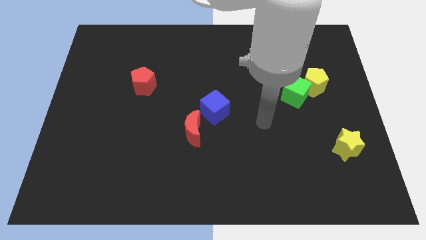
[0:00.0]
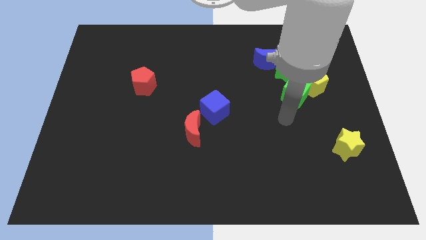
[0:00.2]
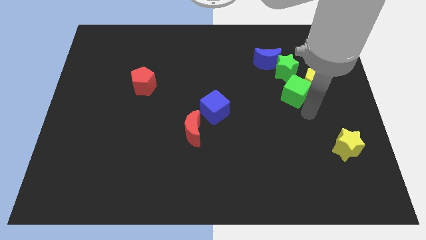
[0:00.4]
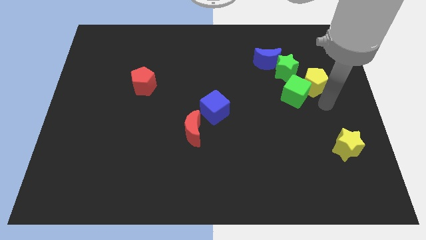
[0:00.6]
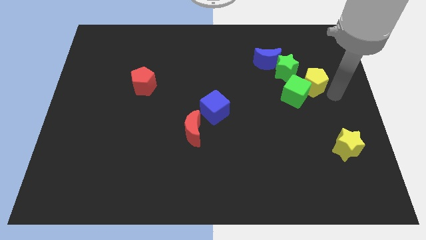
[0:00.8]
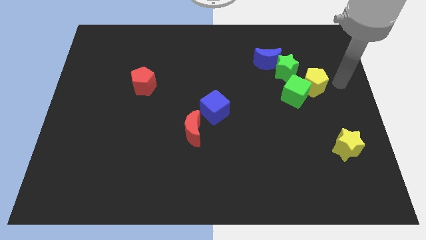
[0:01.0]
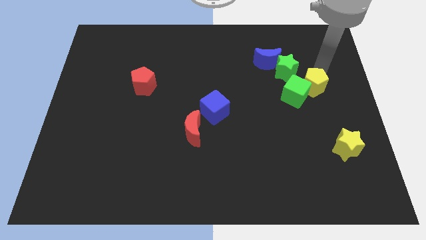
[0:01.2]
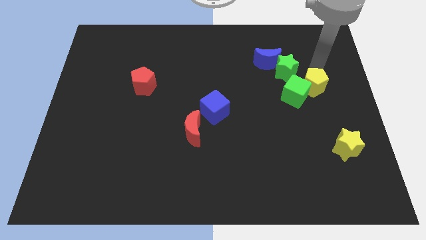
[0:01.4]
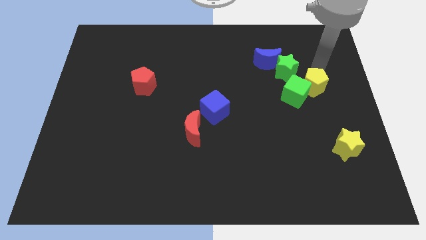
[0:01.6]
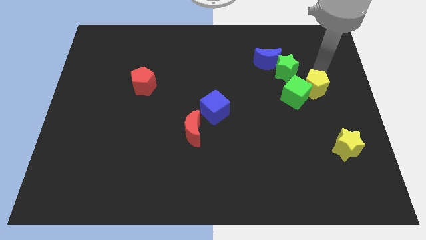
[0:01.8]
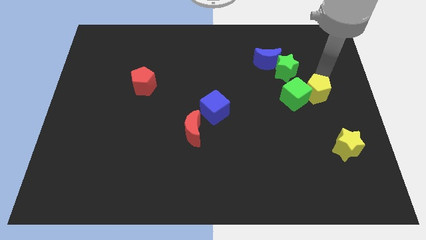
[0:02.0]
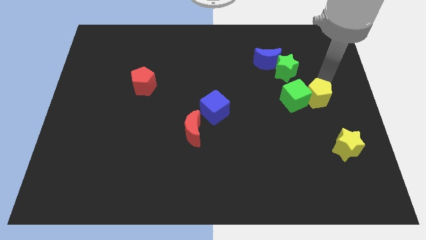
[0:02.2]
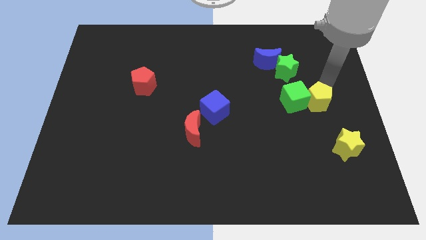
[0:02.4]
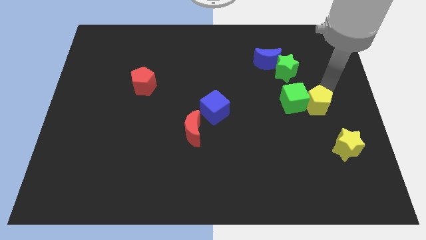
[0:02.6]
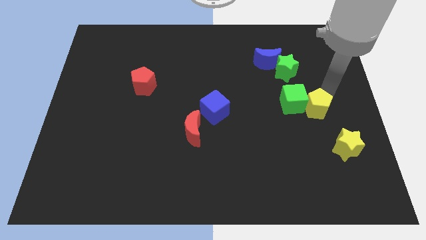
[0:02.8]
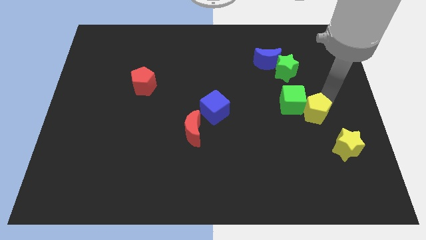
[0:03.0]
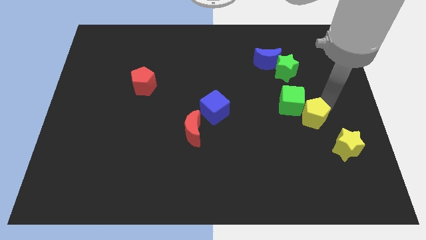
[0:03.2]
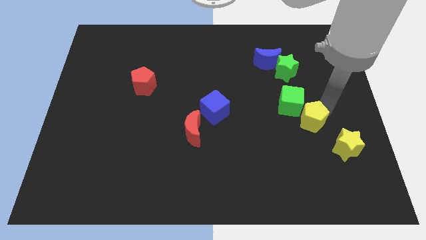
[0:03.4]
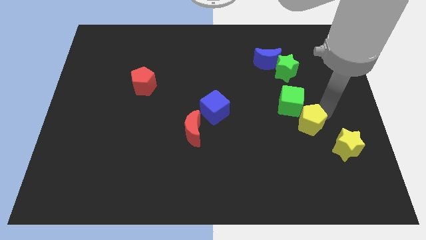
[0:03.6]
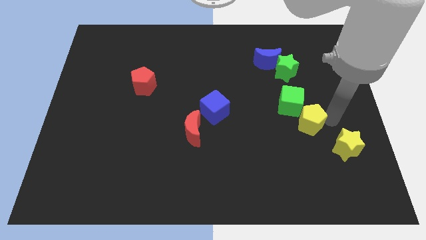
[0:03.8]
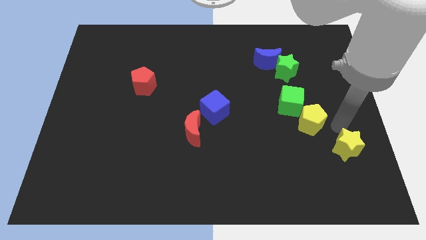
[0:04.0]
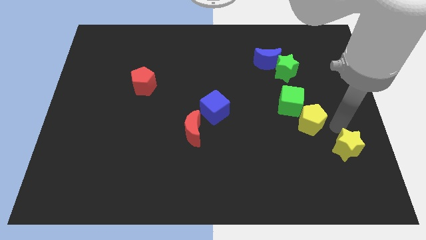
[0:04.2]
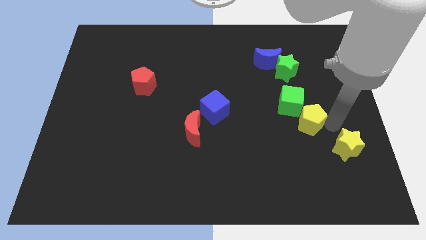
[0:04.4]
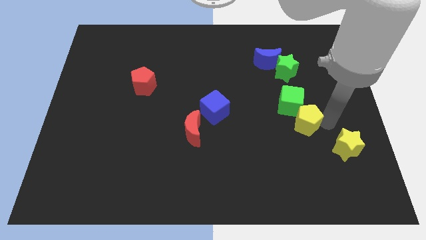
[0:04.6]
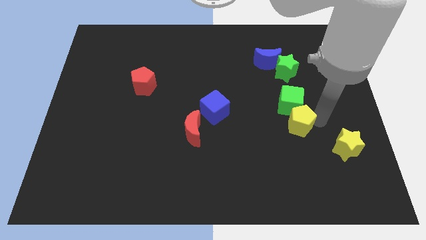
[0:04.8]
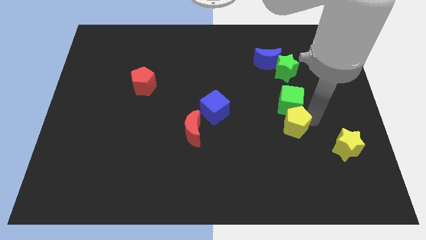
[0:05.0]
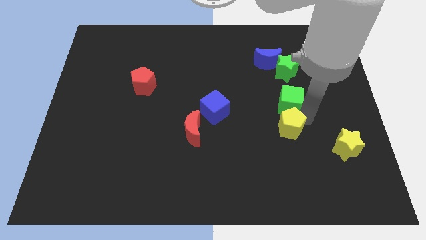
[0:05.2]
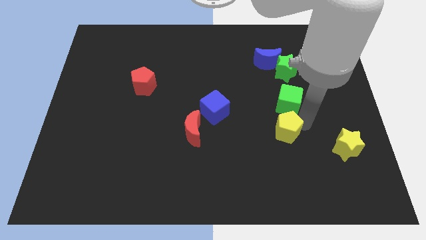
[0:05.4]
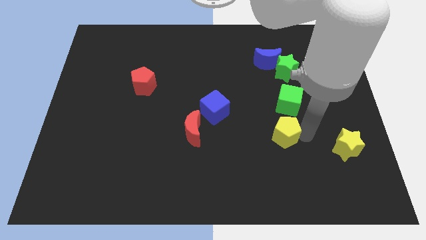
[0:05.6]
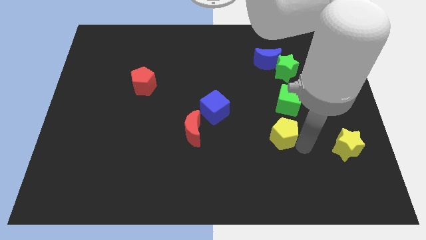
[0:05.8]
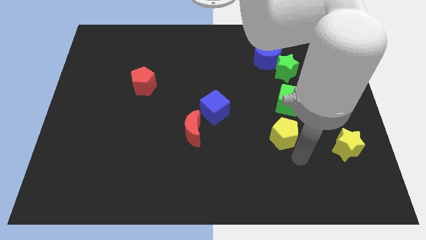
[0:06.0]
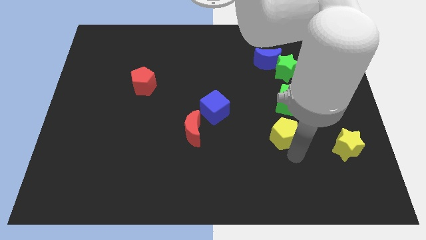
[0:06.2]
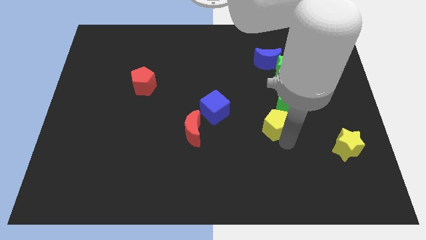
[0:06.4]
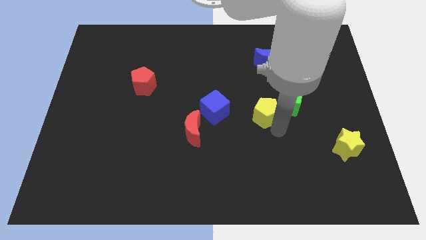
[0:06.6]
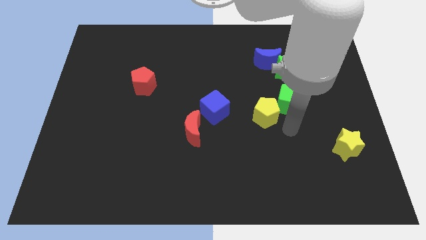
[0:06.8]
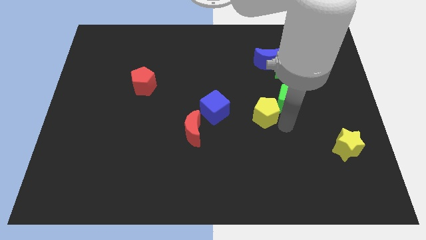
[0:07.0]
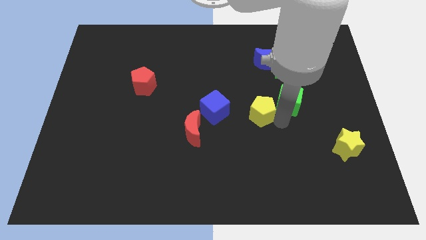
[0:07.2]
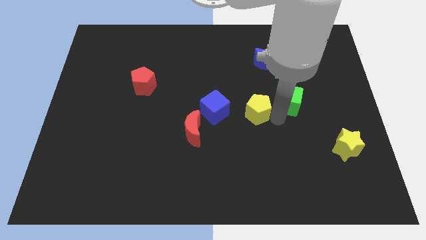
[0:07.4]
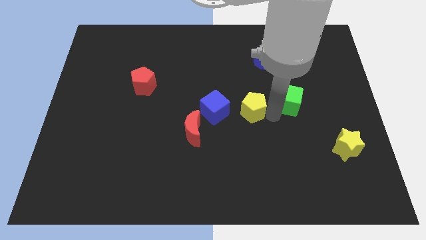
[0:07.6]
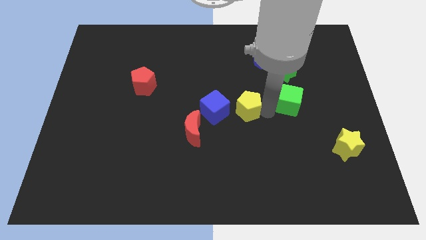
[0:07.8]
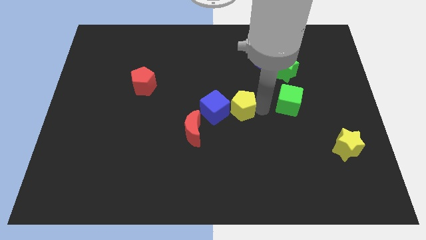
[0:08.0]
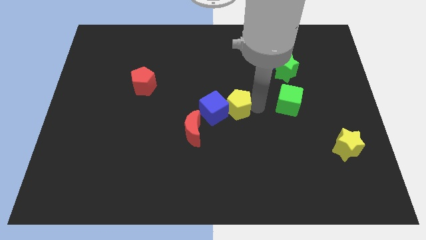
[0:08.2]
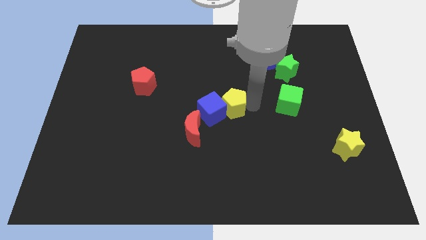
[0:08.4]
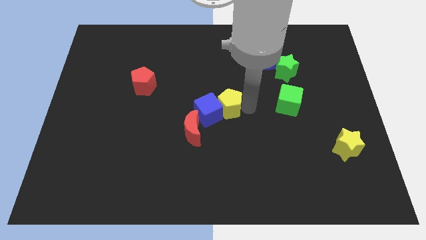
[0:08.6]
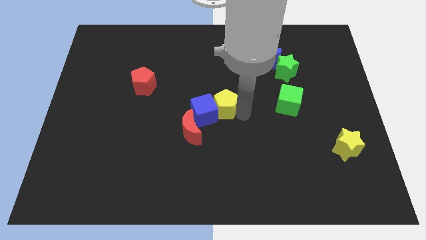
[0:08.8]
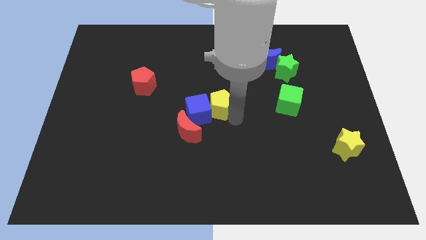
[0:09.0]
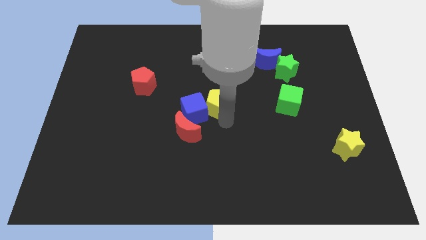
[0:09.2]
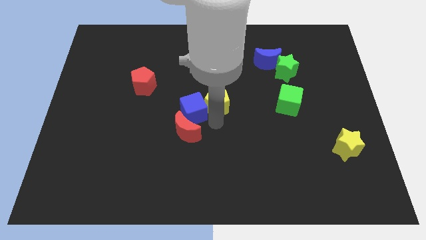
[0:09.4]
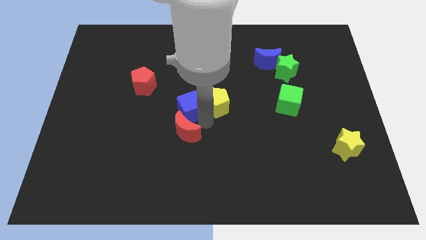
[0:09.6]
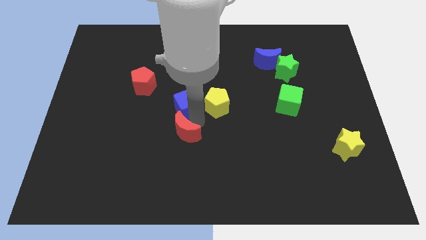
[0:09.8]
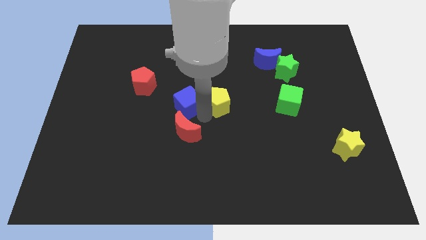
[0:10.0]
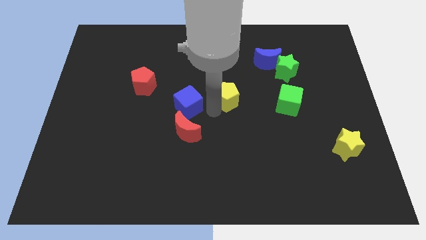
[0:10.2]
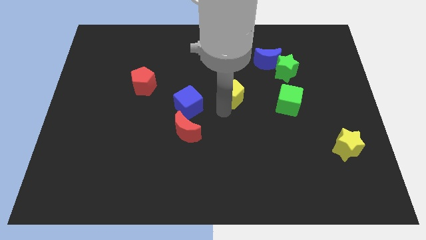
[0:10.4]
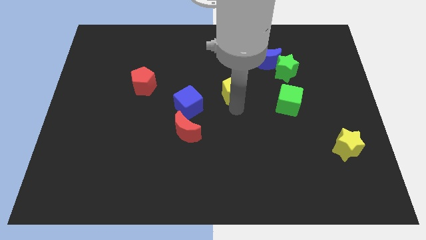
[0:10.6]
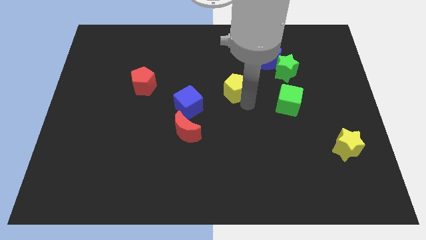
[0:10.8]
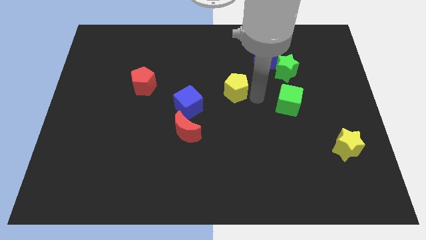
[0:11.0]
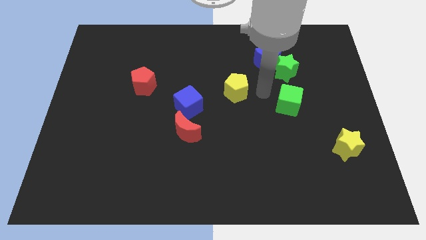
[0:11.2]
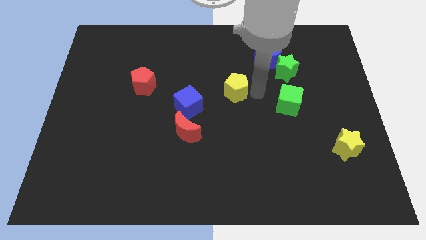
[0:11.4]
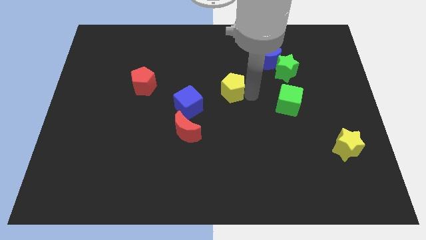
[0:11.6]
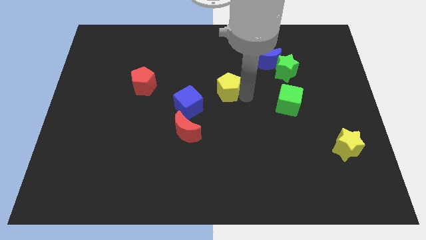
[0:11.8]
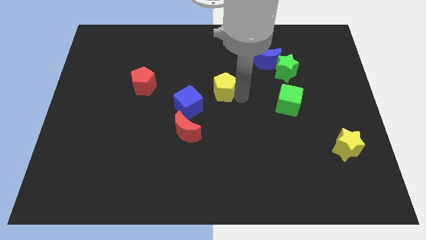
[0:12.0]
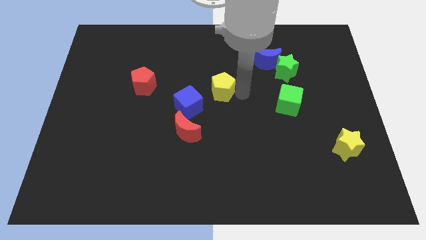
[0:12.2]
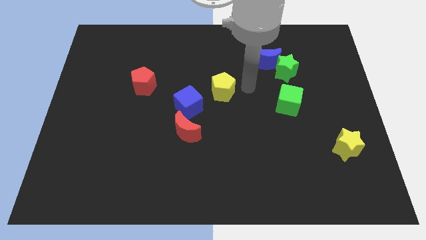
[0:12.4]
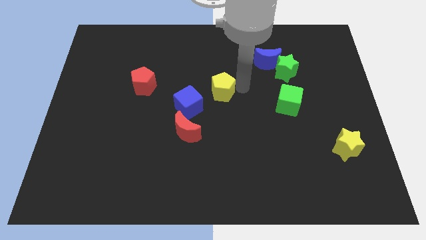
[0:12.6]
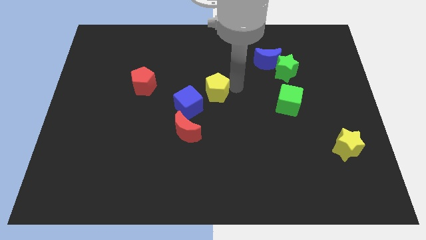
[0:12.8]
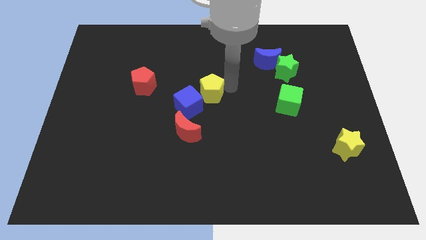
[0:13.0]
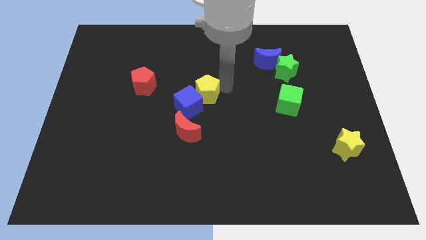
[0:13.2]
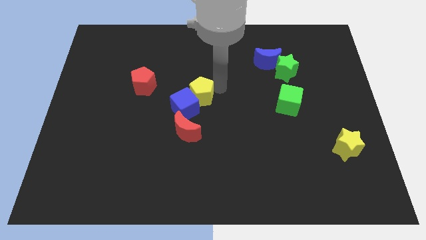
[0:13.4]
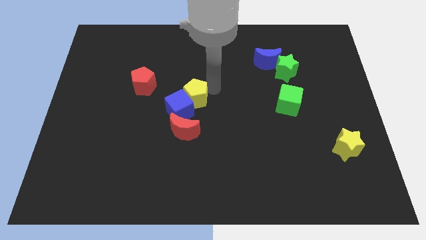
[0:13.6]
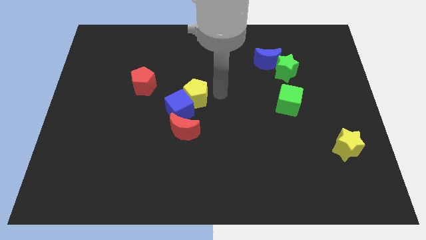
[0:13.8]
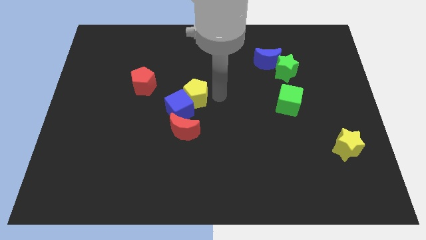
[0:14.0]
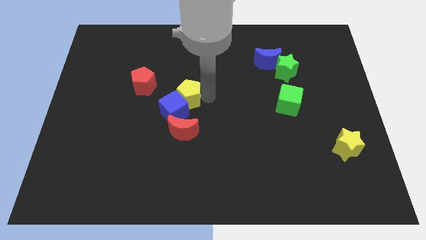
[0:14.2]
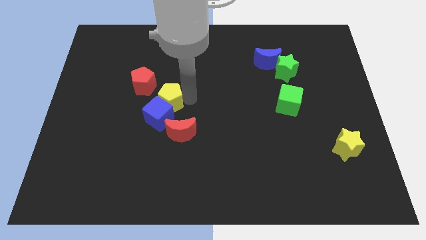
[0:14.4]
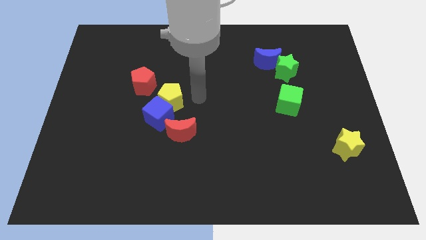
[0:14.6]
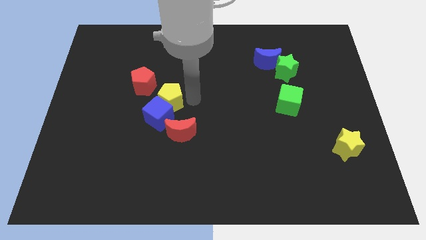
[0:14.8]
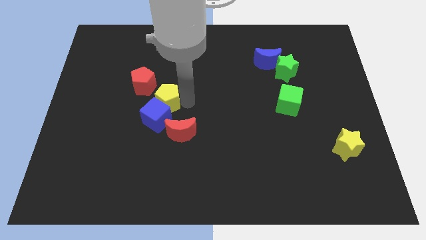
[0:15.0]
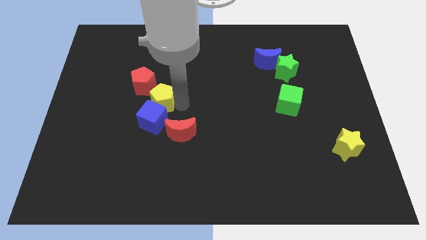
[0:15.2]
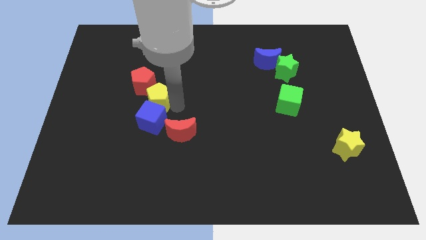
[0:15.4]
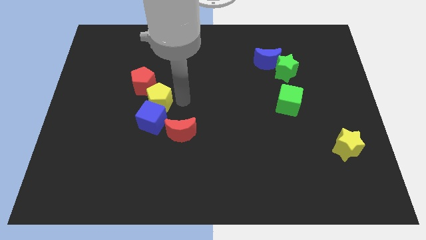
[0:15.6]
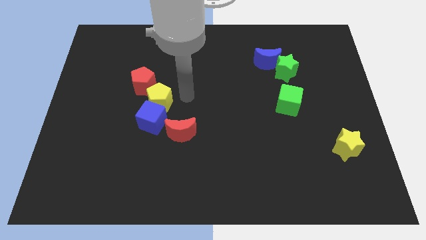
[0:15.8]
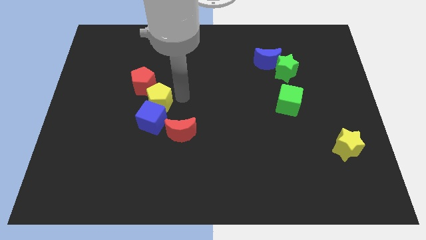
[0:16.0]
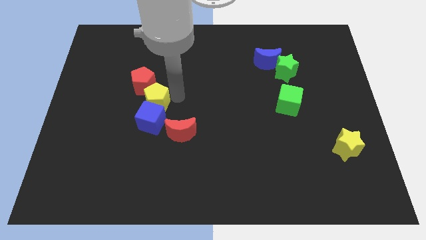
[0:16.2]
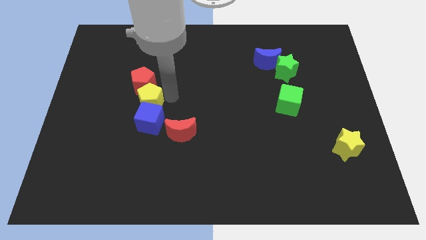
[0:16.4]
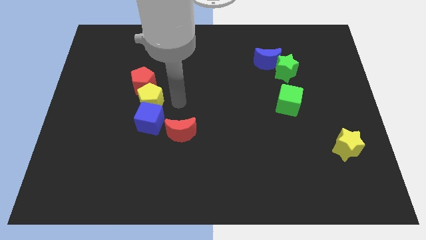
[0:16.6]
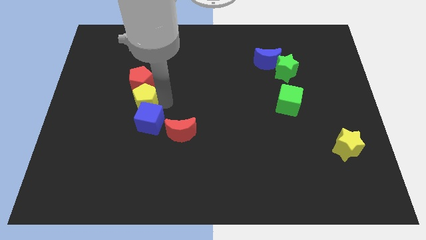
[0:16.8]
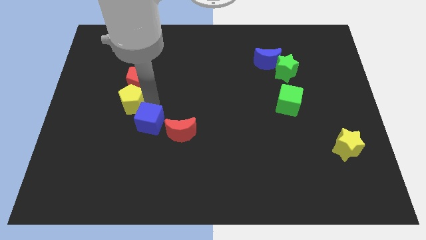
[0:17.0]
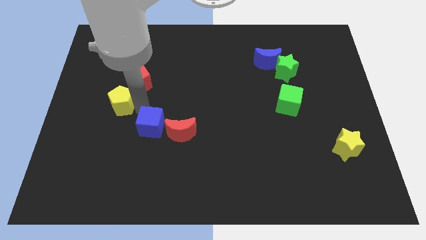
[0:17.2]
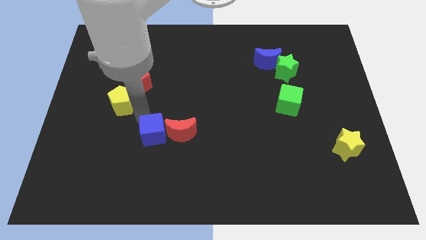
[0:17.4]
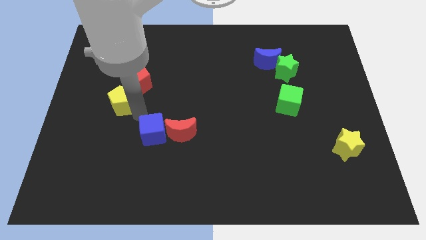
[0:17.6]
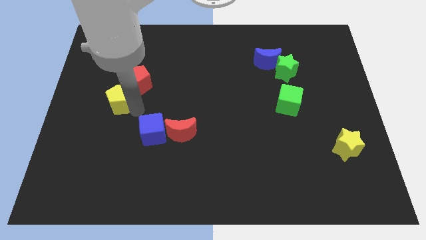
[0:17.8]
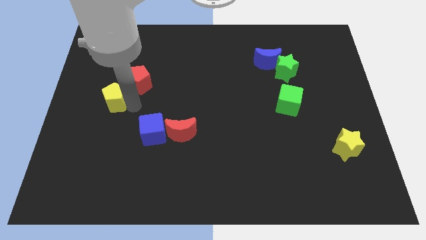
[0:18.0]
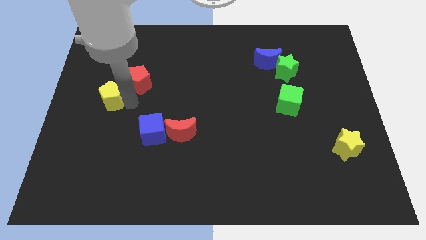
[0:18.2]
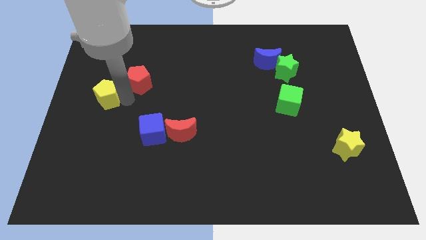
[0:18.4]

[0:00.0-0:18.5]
push the yellow pentagon to the center left
